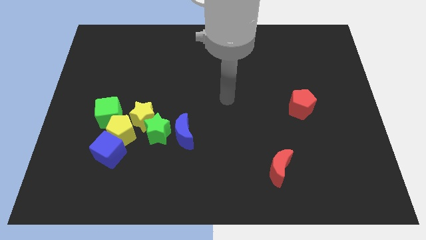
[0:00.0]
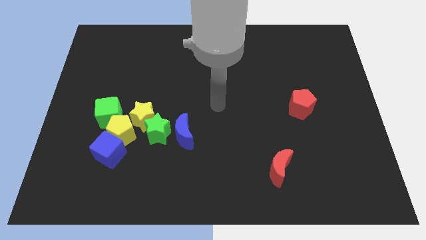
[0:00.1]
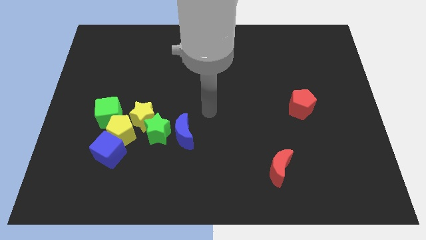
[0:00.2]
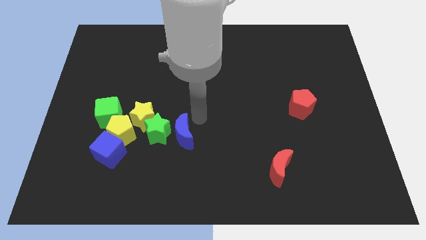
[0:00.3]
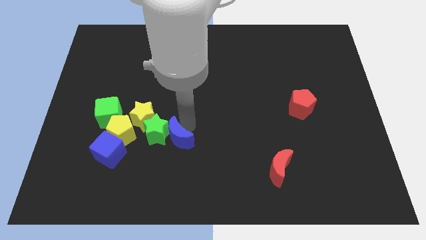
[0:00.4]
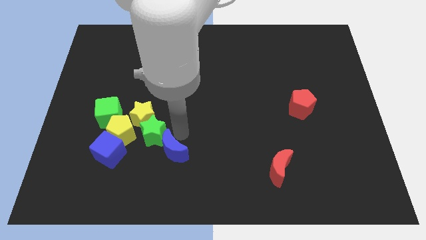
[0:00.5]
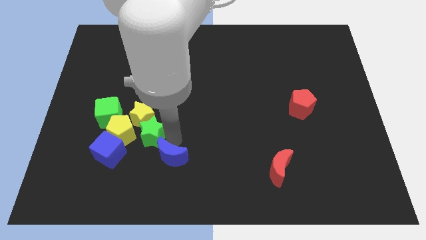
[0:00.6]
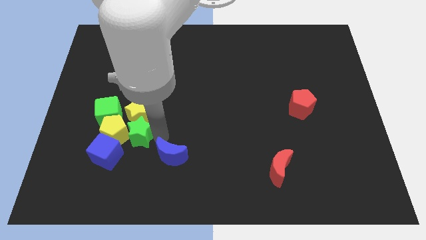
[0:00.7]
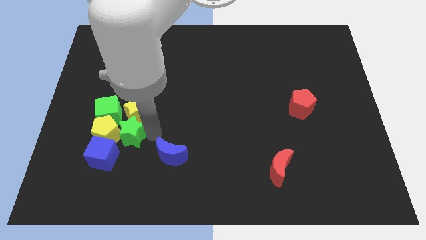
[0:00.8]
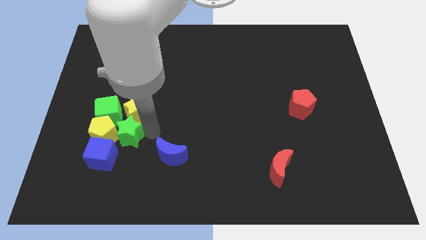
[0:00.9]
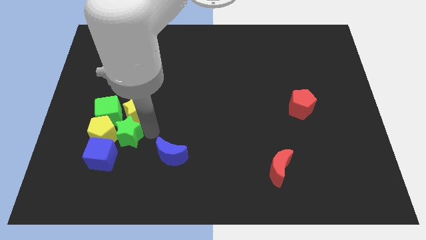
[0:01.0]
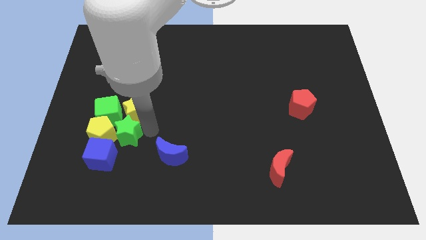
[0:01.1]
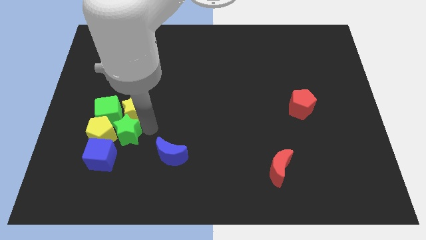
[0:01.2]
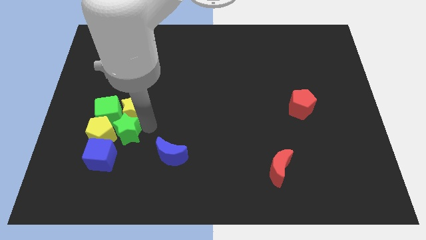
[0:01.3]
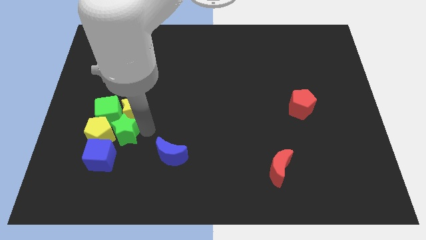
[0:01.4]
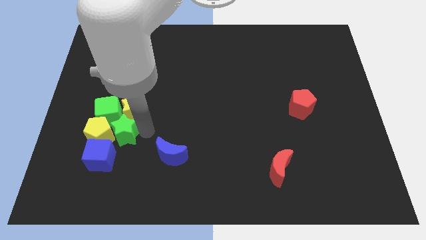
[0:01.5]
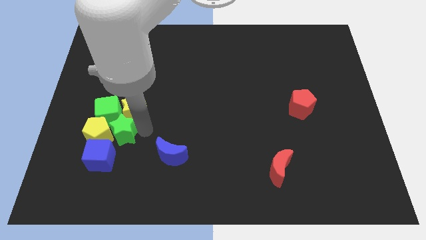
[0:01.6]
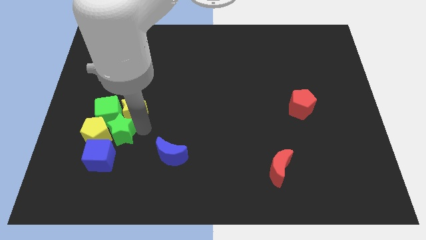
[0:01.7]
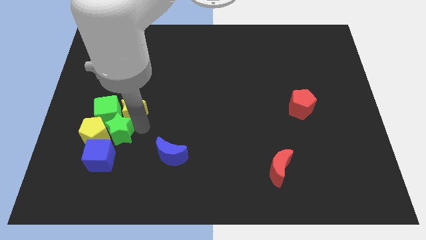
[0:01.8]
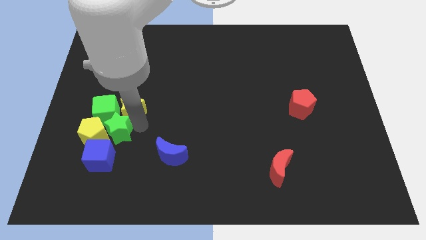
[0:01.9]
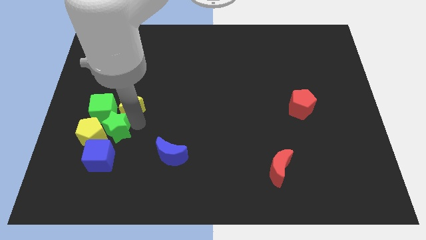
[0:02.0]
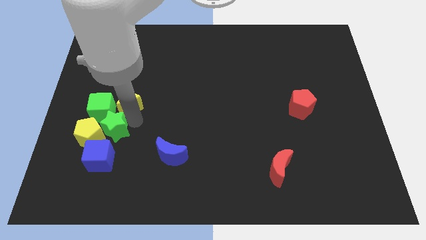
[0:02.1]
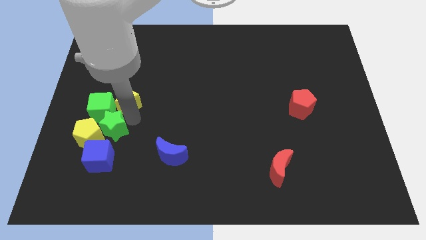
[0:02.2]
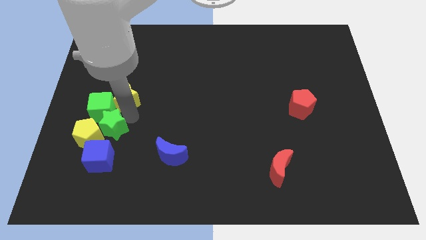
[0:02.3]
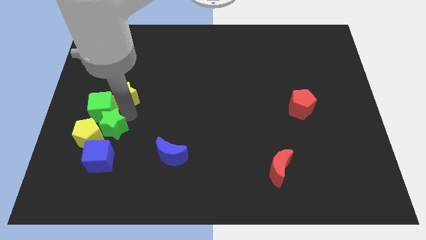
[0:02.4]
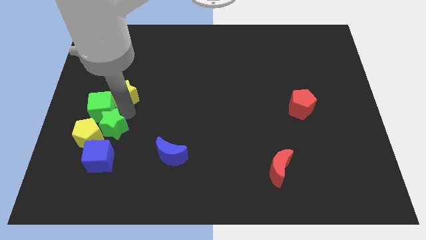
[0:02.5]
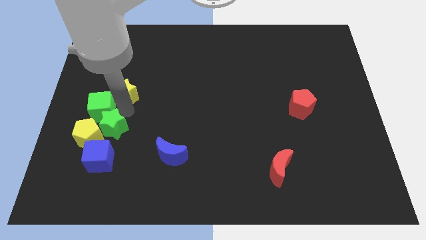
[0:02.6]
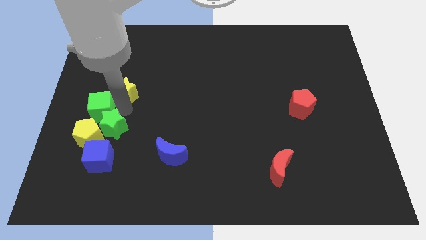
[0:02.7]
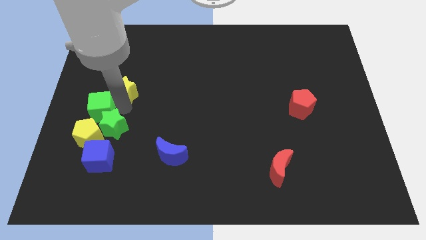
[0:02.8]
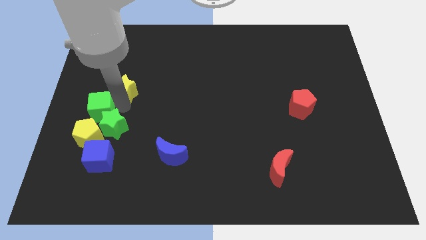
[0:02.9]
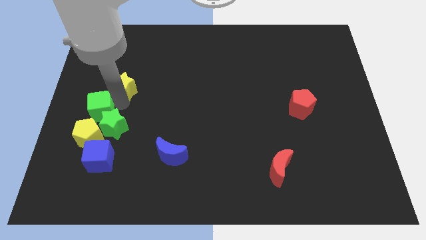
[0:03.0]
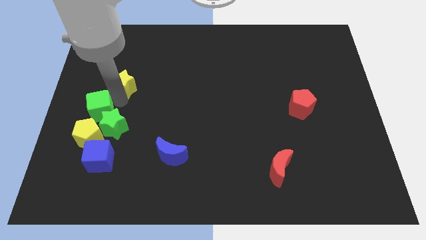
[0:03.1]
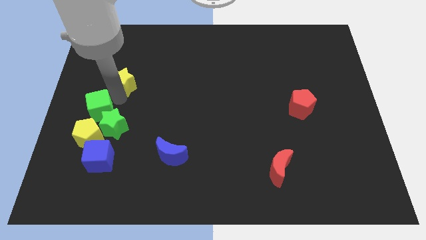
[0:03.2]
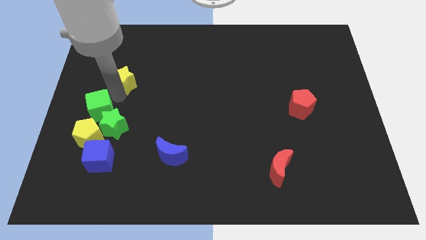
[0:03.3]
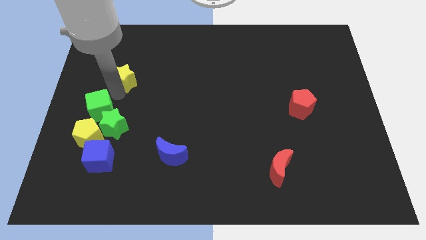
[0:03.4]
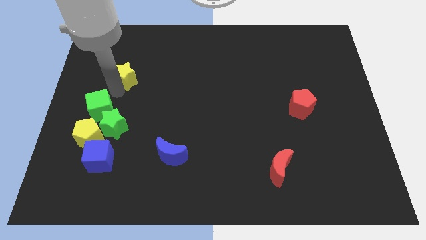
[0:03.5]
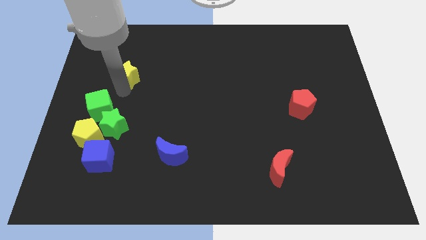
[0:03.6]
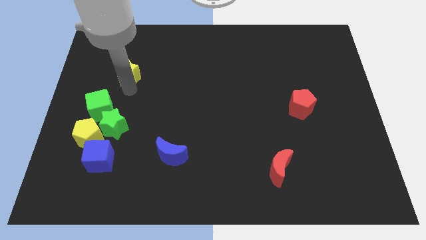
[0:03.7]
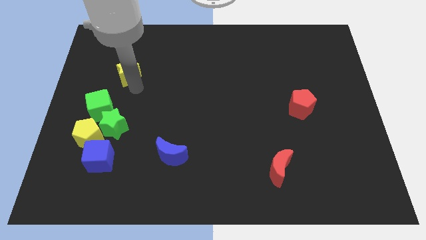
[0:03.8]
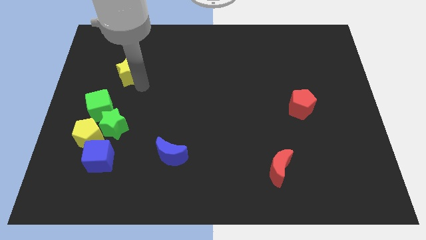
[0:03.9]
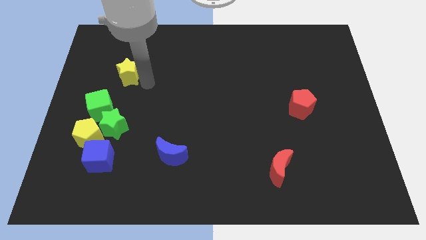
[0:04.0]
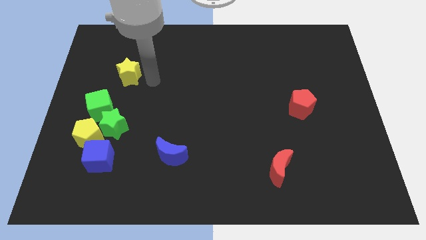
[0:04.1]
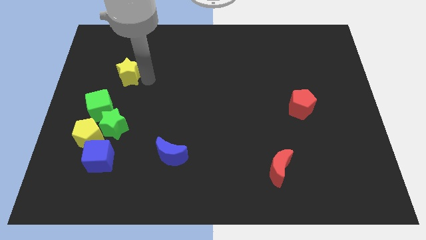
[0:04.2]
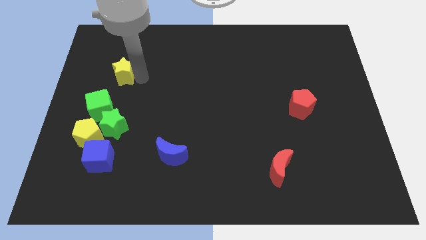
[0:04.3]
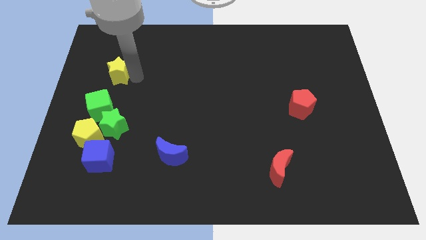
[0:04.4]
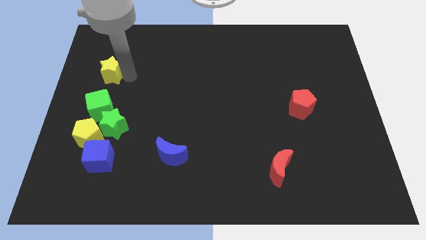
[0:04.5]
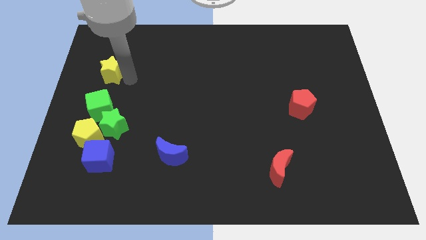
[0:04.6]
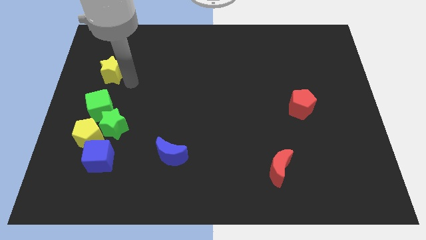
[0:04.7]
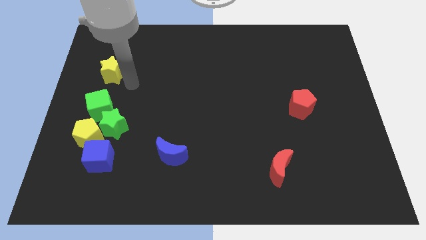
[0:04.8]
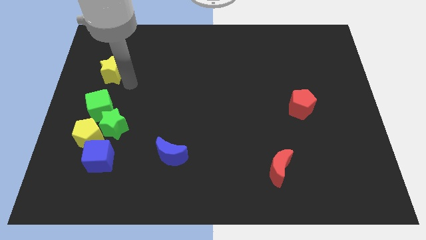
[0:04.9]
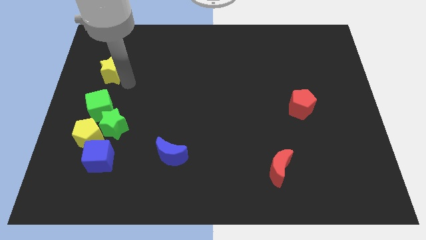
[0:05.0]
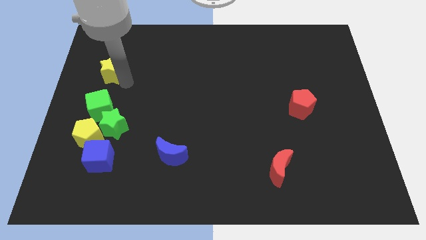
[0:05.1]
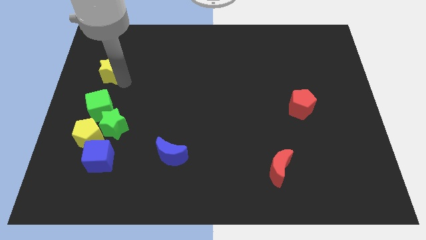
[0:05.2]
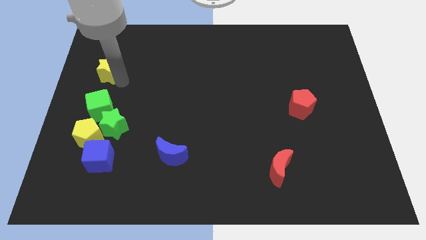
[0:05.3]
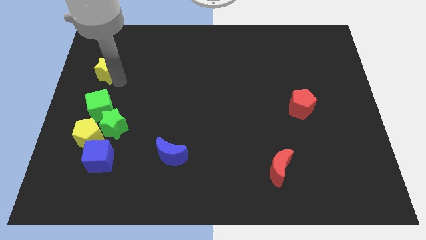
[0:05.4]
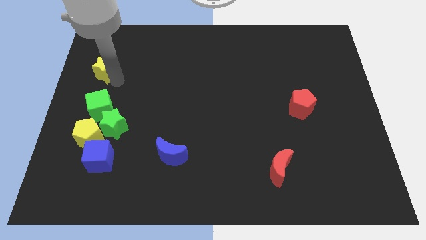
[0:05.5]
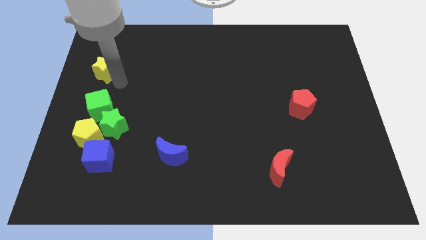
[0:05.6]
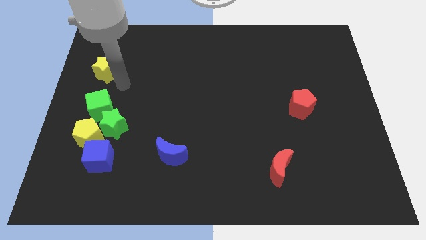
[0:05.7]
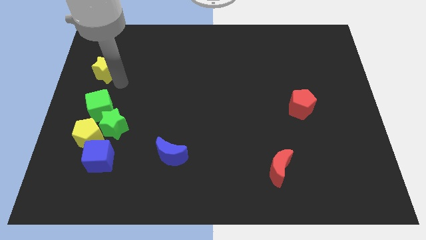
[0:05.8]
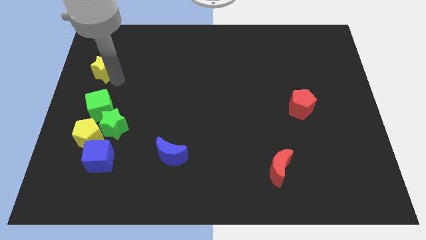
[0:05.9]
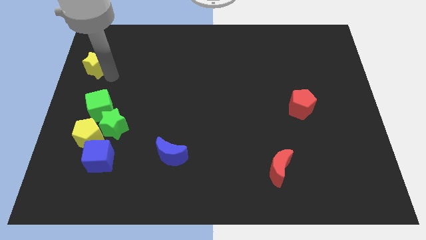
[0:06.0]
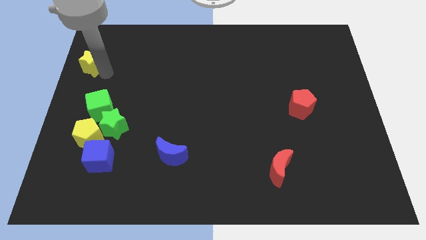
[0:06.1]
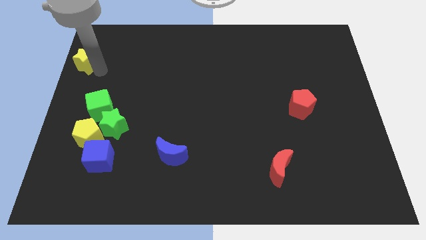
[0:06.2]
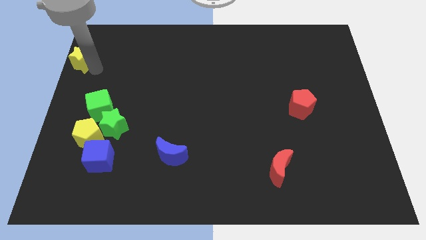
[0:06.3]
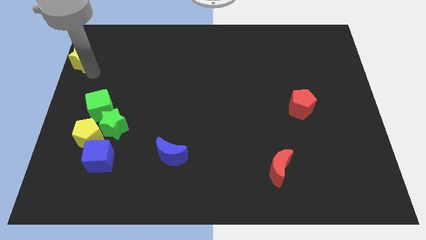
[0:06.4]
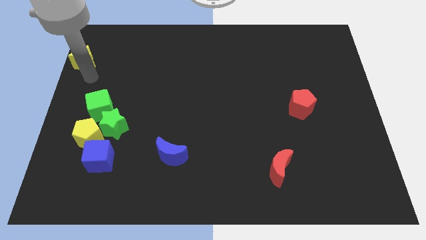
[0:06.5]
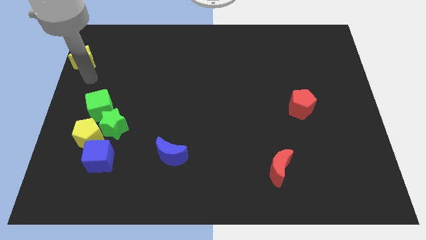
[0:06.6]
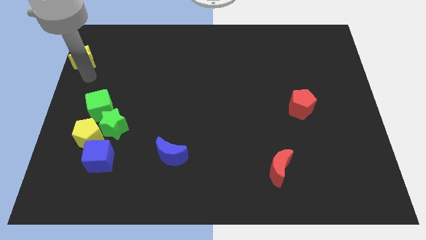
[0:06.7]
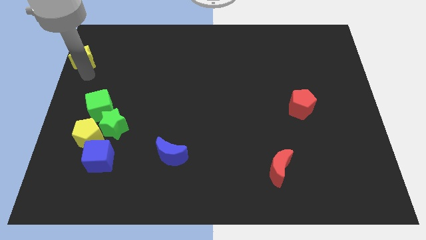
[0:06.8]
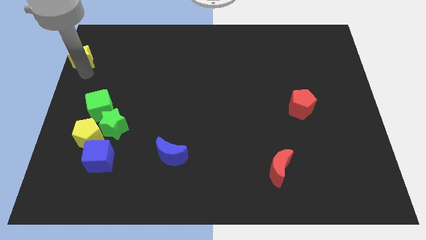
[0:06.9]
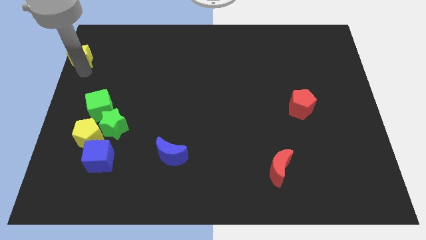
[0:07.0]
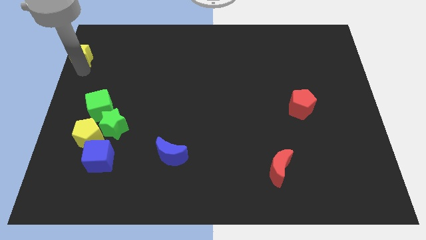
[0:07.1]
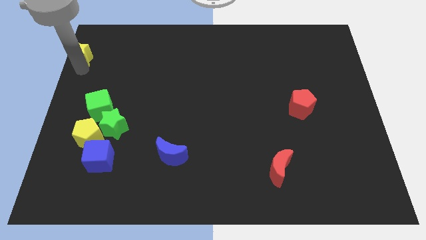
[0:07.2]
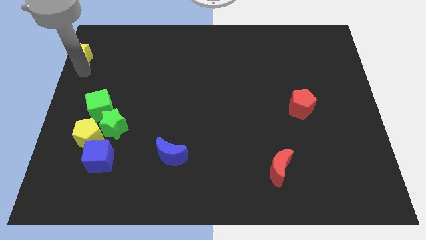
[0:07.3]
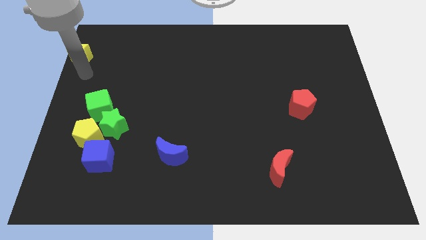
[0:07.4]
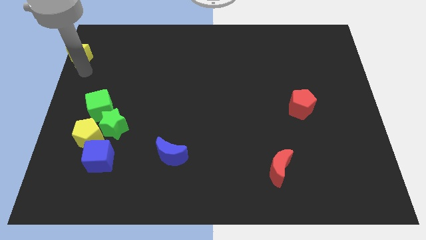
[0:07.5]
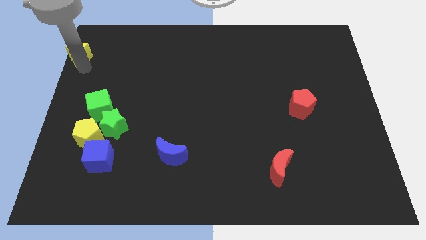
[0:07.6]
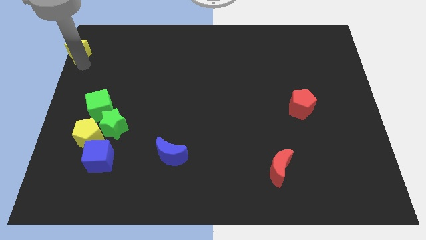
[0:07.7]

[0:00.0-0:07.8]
slide the yellow star to the upper left corner

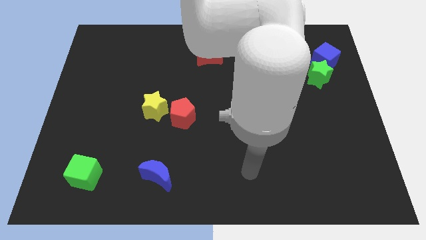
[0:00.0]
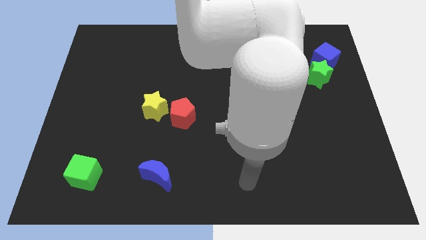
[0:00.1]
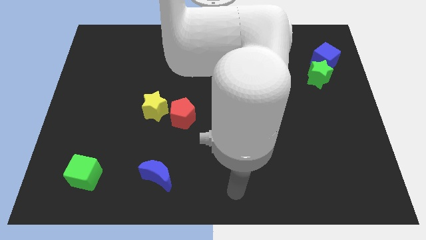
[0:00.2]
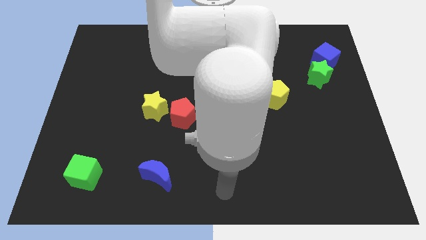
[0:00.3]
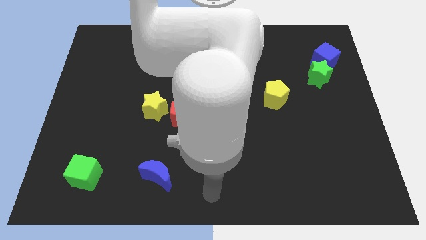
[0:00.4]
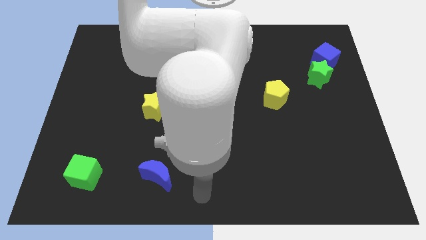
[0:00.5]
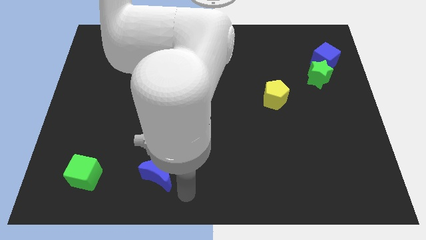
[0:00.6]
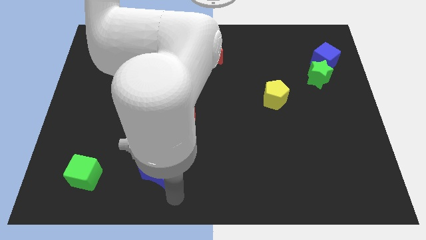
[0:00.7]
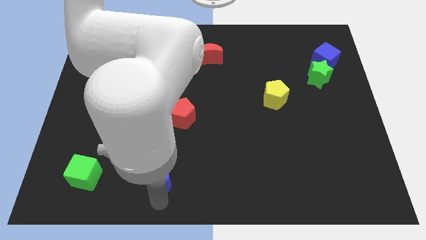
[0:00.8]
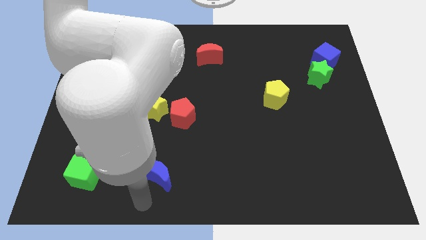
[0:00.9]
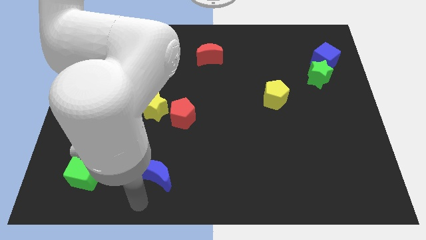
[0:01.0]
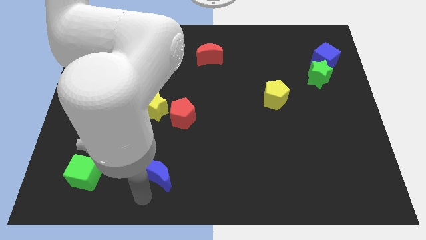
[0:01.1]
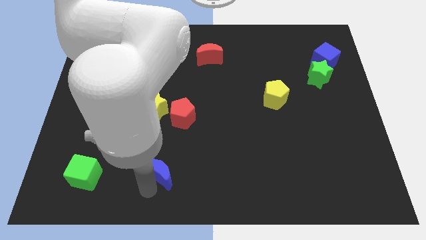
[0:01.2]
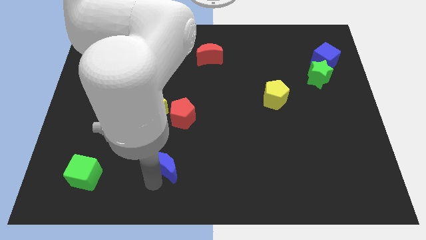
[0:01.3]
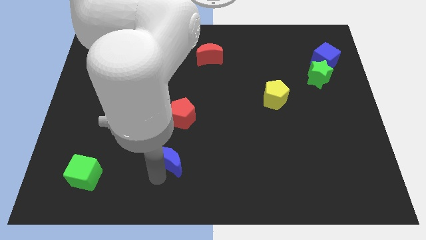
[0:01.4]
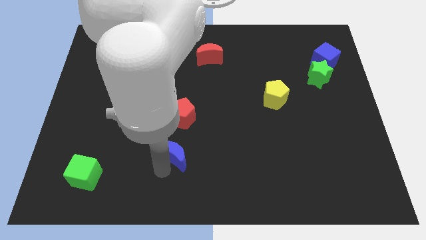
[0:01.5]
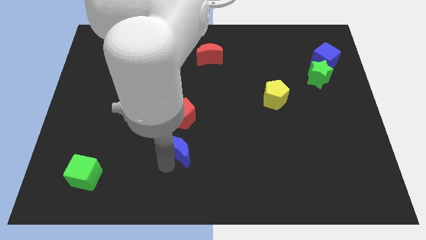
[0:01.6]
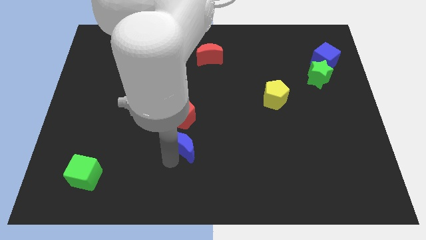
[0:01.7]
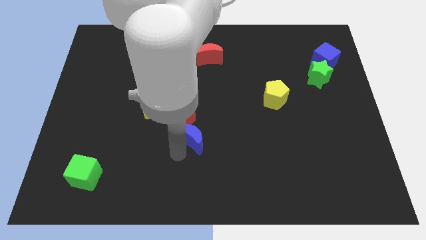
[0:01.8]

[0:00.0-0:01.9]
slide the blue moon to the center
